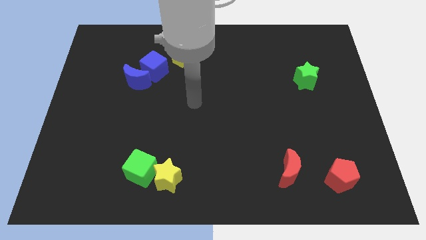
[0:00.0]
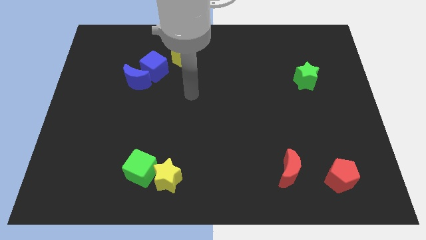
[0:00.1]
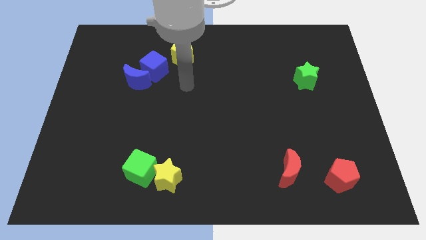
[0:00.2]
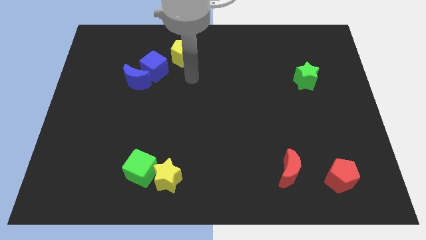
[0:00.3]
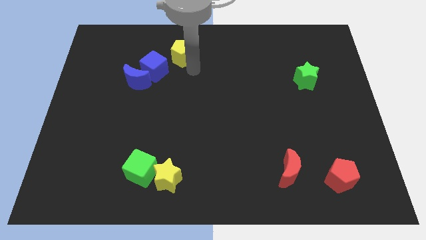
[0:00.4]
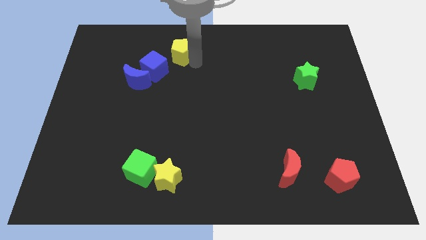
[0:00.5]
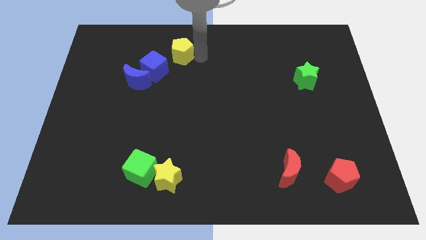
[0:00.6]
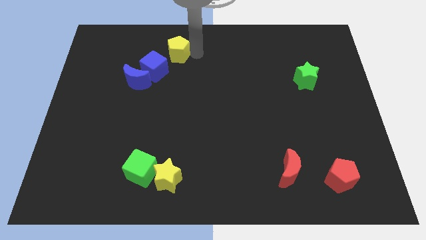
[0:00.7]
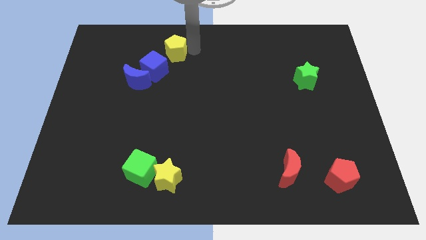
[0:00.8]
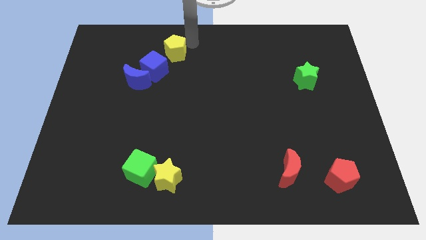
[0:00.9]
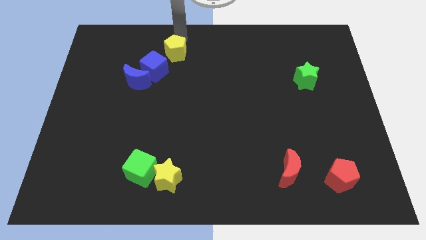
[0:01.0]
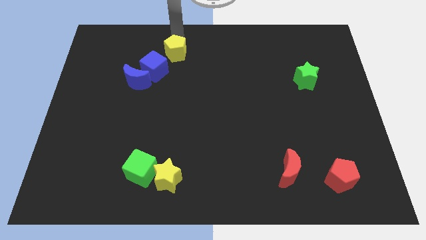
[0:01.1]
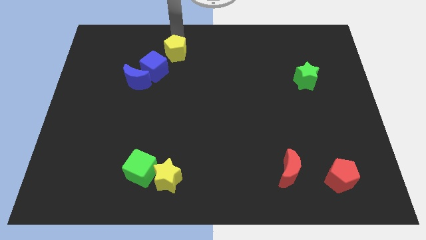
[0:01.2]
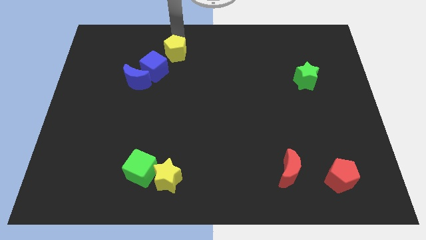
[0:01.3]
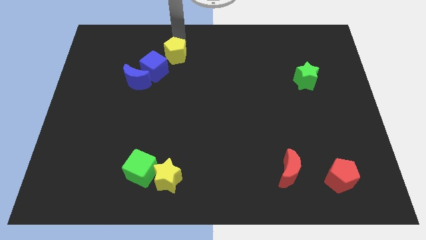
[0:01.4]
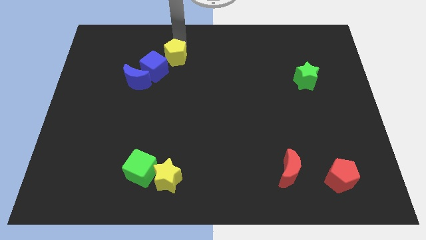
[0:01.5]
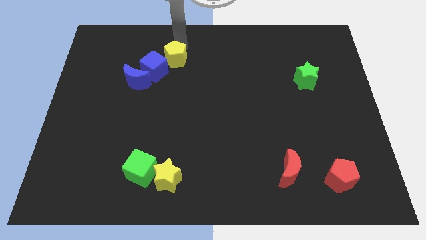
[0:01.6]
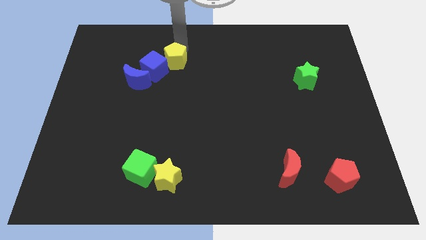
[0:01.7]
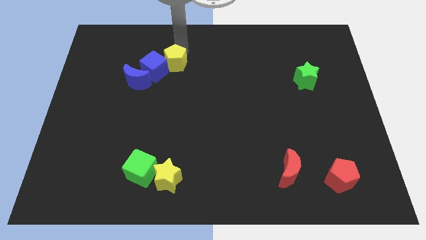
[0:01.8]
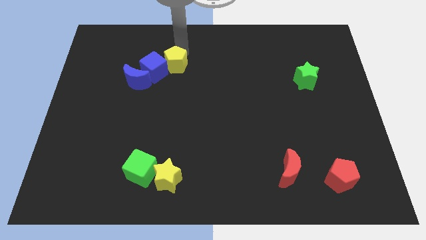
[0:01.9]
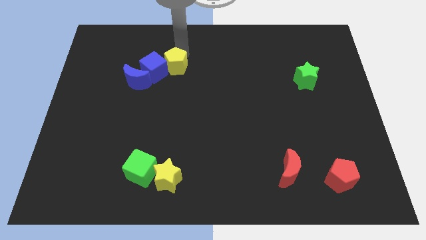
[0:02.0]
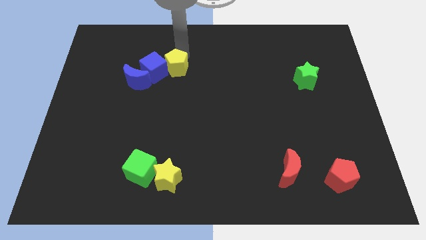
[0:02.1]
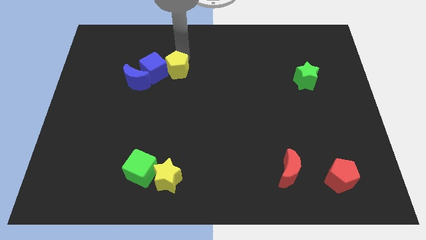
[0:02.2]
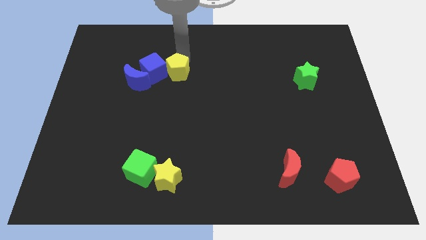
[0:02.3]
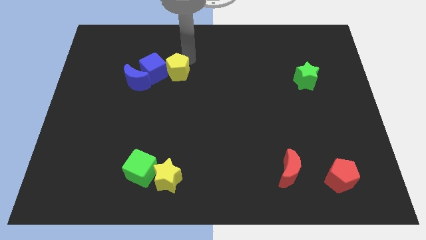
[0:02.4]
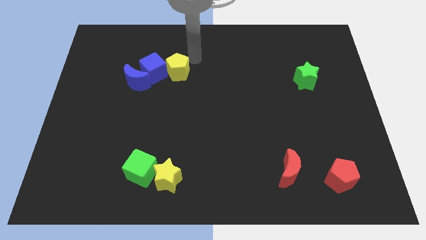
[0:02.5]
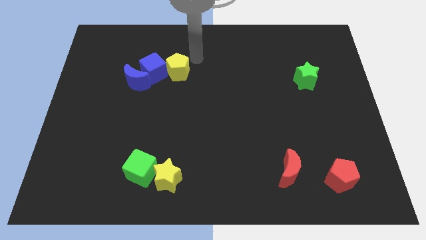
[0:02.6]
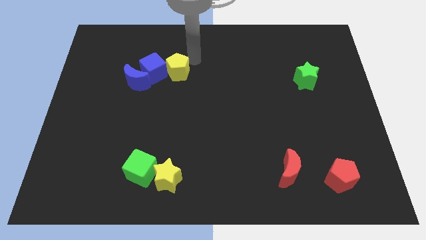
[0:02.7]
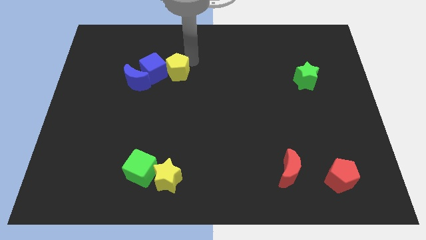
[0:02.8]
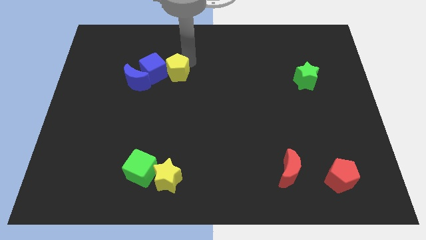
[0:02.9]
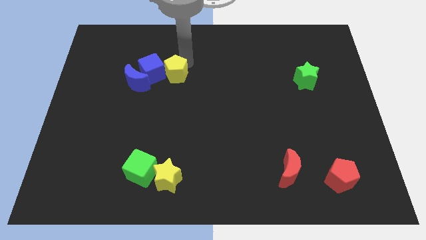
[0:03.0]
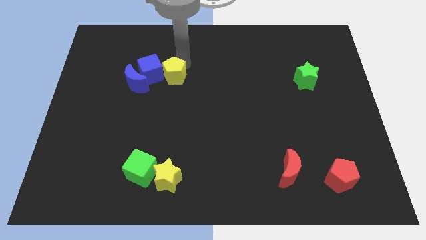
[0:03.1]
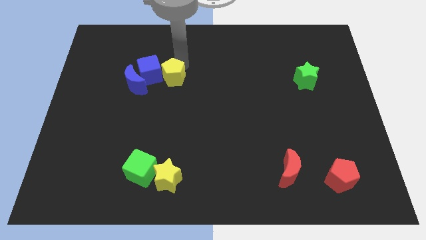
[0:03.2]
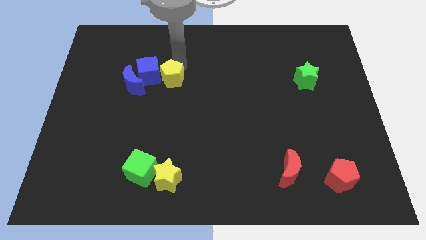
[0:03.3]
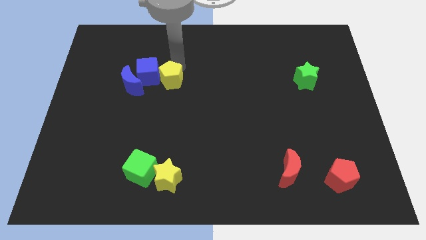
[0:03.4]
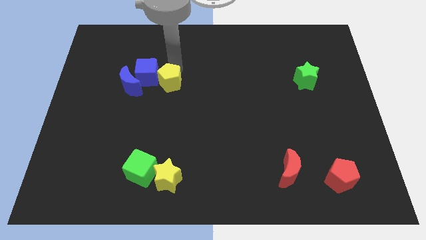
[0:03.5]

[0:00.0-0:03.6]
move the yellow pentagon diagonally down and to the left a bit

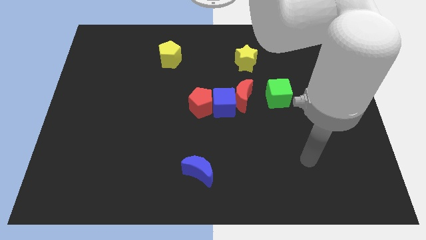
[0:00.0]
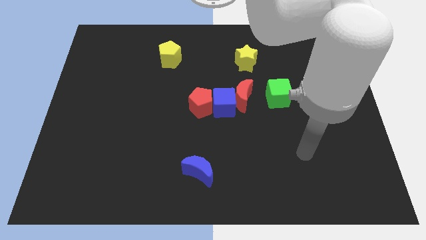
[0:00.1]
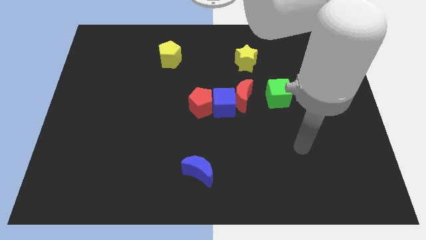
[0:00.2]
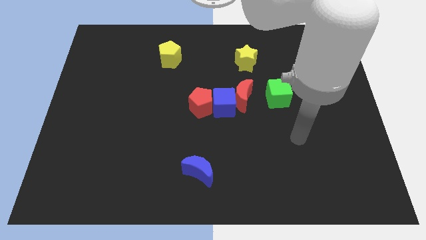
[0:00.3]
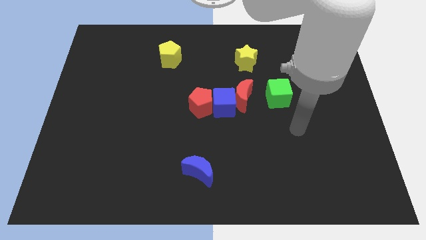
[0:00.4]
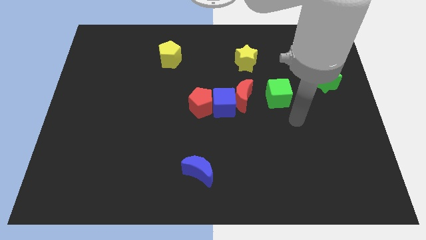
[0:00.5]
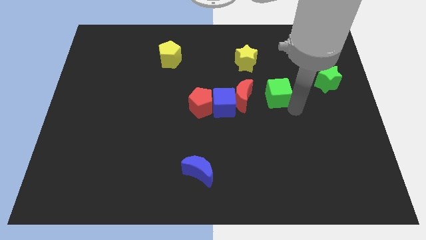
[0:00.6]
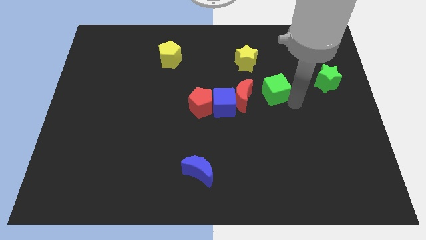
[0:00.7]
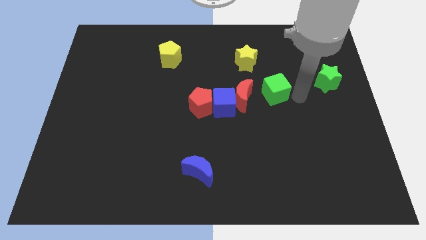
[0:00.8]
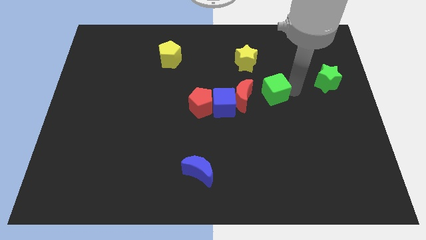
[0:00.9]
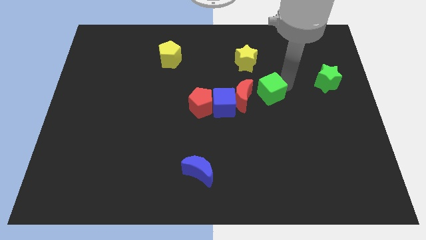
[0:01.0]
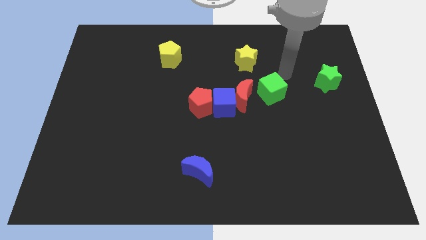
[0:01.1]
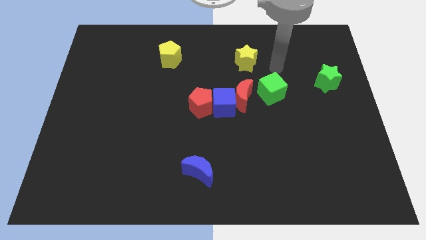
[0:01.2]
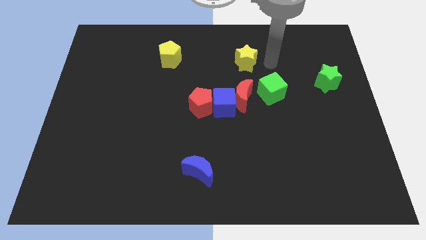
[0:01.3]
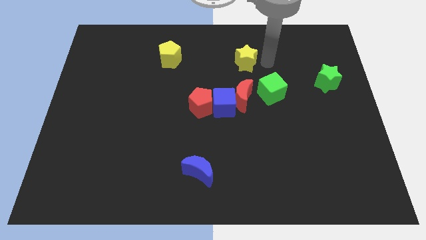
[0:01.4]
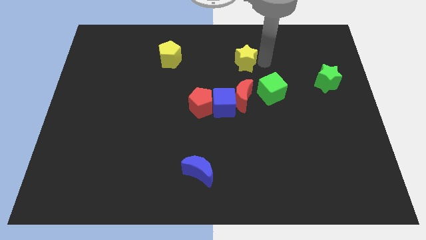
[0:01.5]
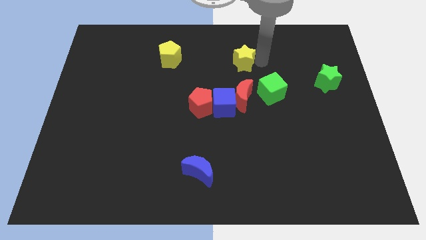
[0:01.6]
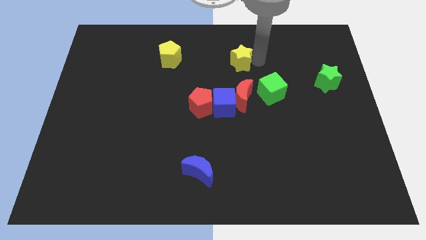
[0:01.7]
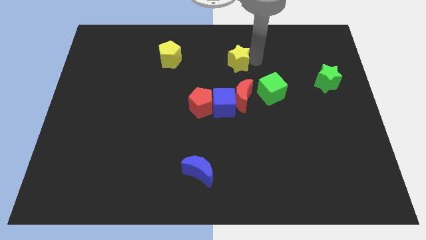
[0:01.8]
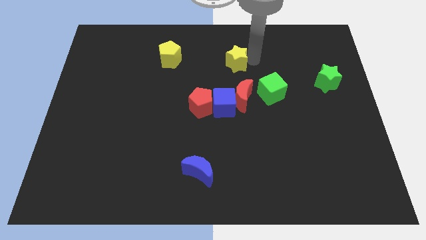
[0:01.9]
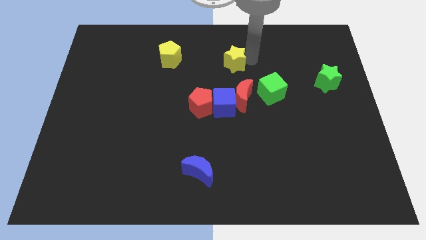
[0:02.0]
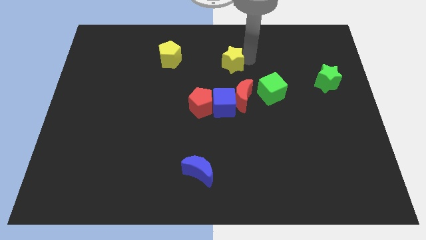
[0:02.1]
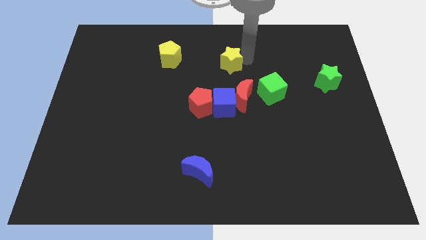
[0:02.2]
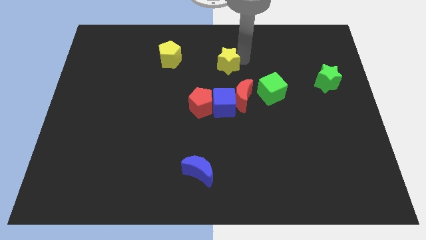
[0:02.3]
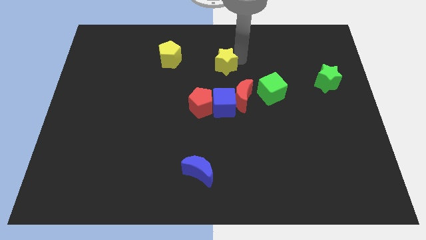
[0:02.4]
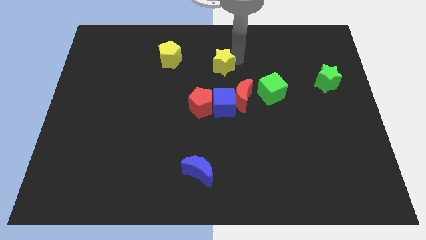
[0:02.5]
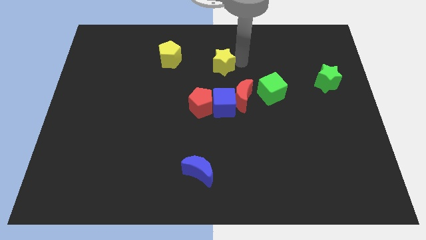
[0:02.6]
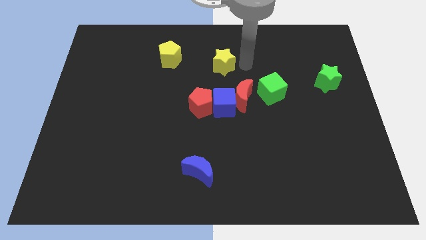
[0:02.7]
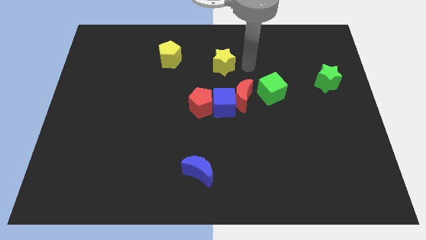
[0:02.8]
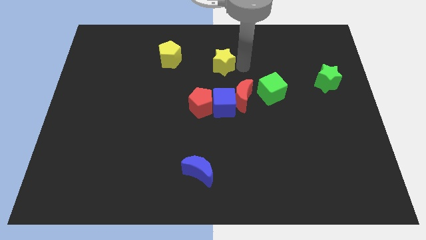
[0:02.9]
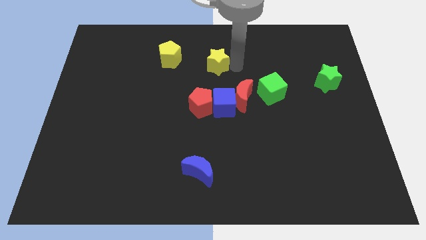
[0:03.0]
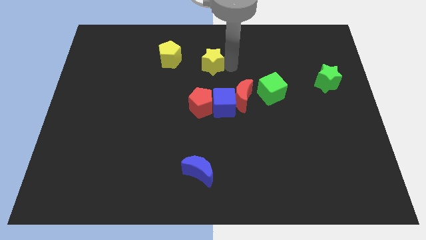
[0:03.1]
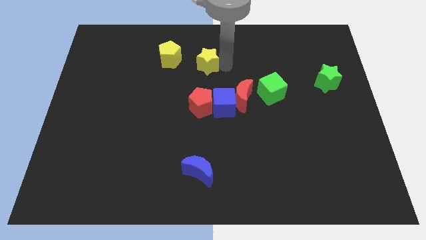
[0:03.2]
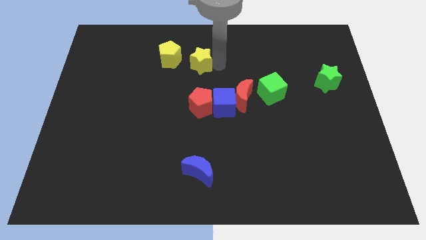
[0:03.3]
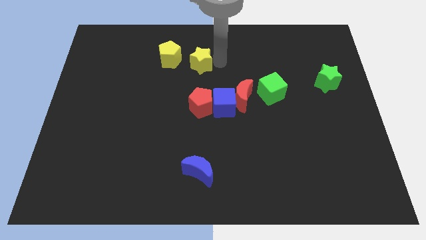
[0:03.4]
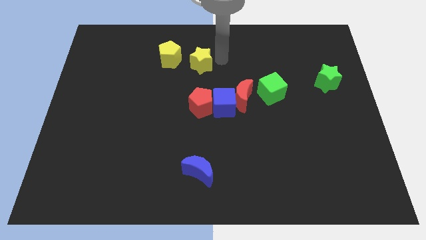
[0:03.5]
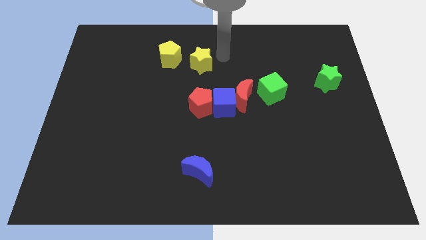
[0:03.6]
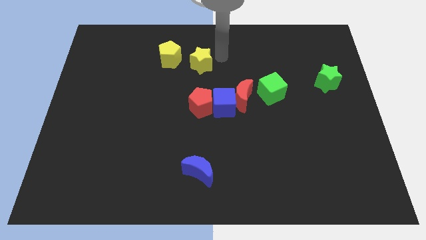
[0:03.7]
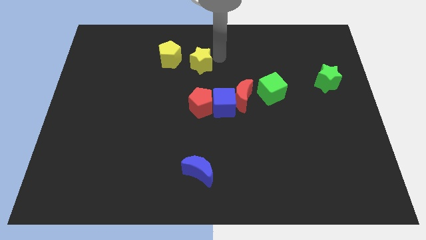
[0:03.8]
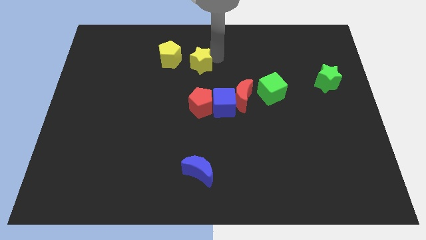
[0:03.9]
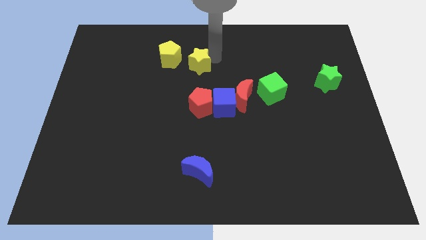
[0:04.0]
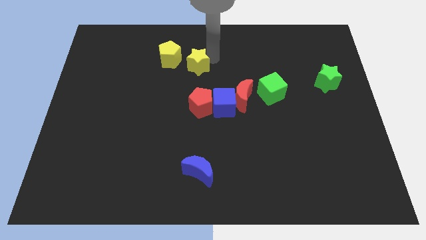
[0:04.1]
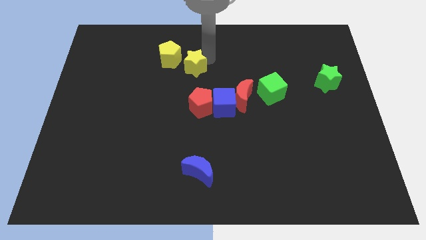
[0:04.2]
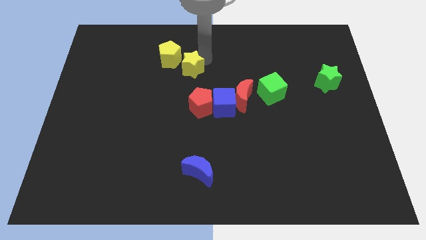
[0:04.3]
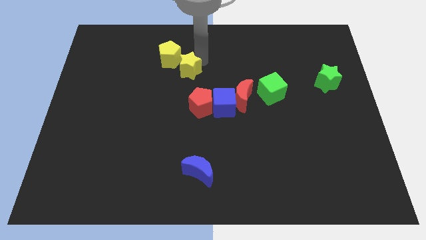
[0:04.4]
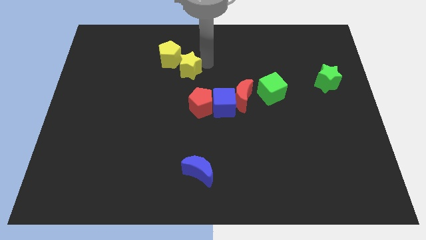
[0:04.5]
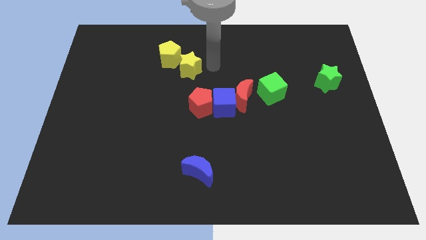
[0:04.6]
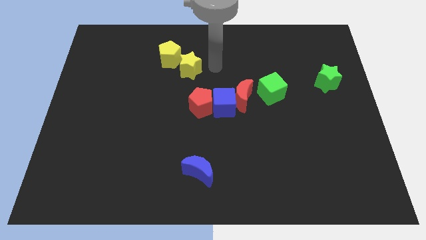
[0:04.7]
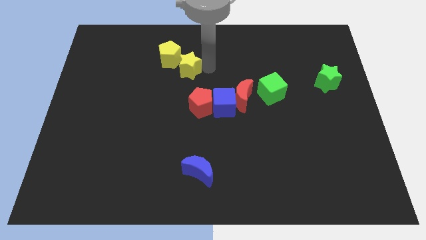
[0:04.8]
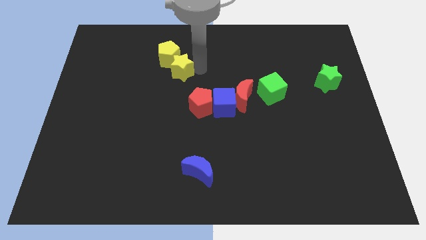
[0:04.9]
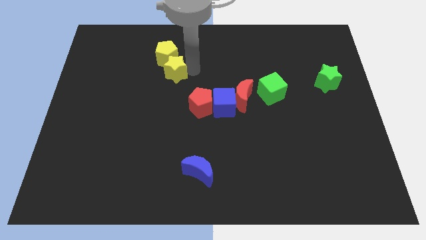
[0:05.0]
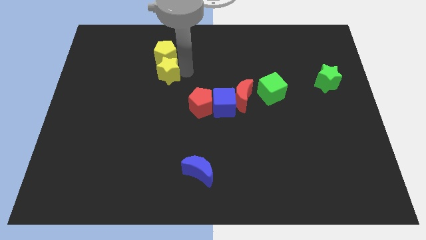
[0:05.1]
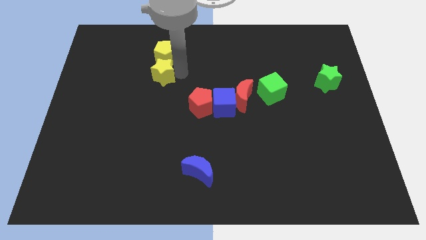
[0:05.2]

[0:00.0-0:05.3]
slide the yellow star to the left
